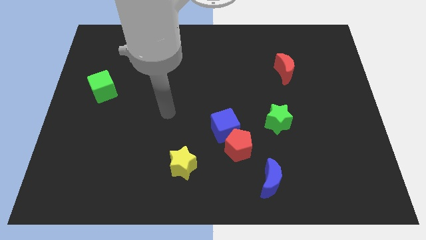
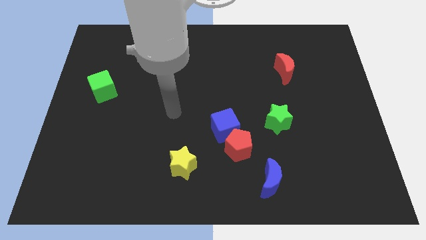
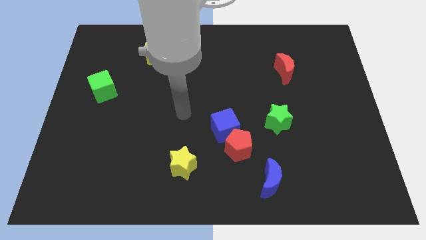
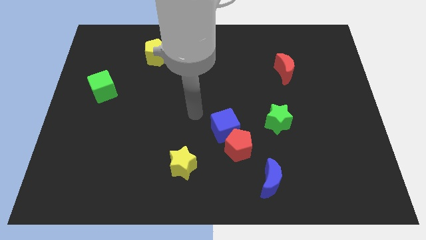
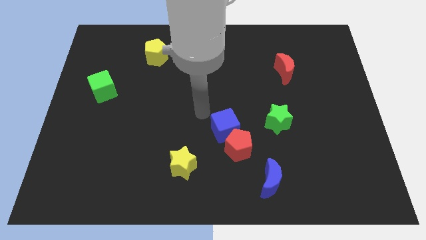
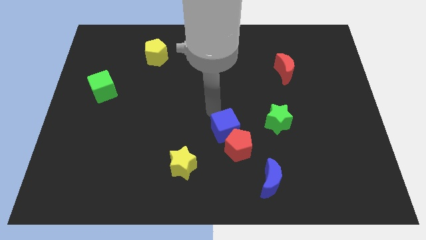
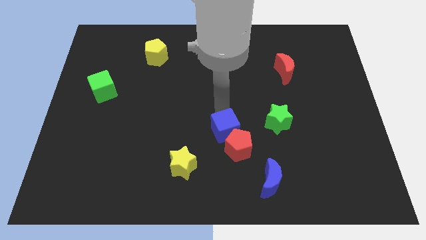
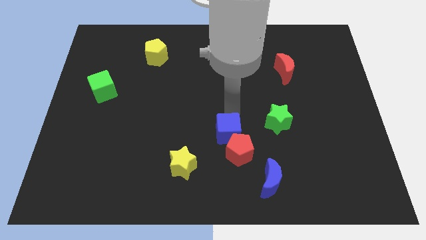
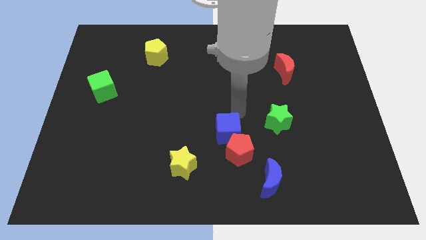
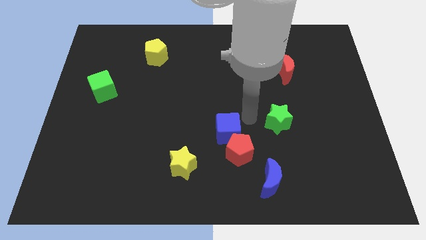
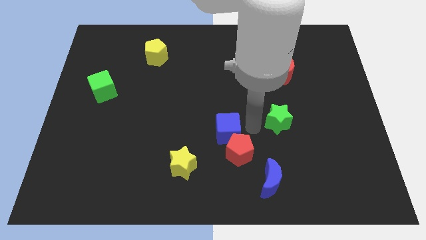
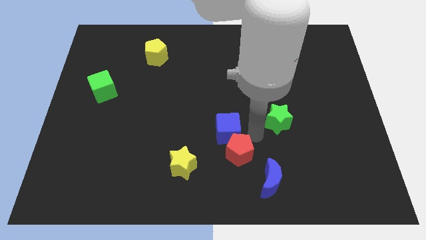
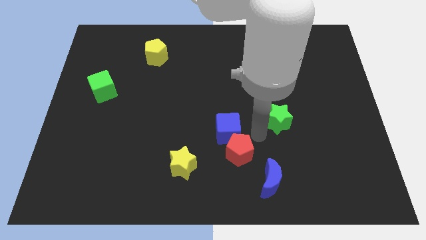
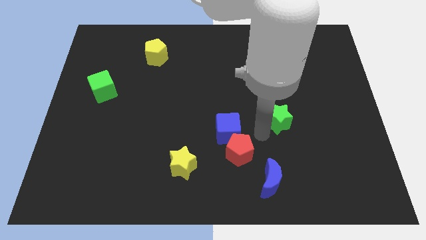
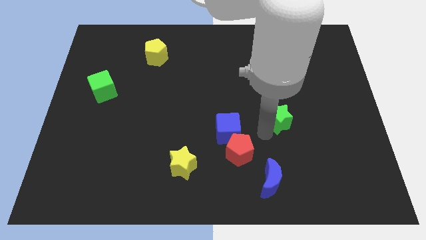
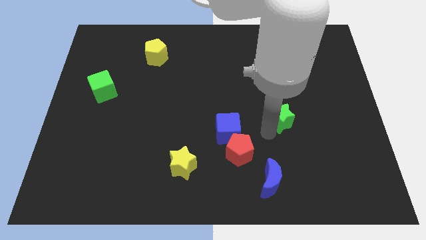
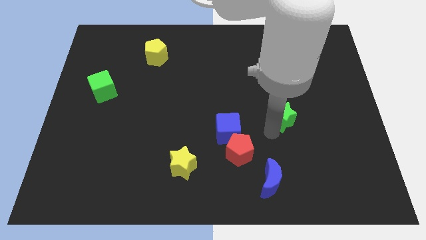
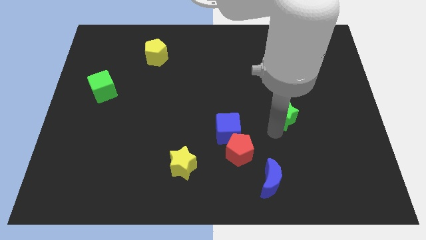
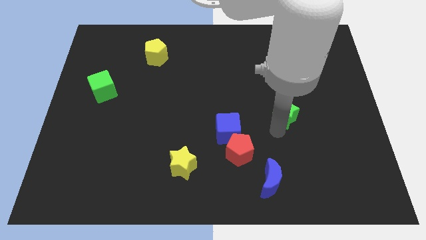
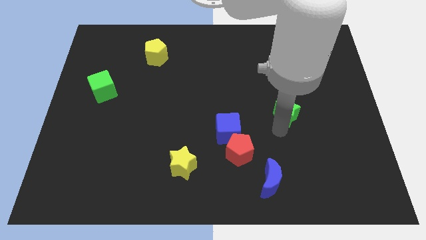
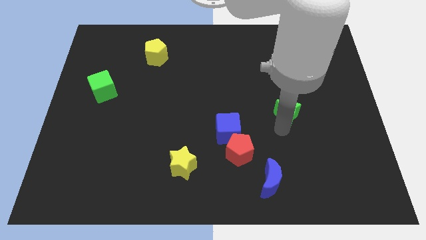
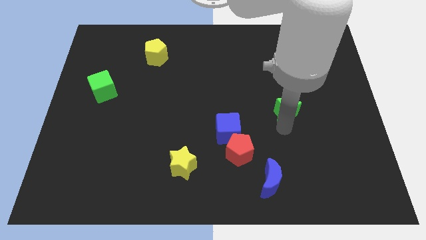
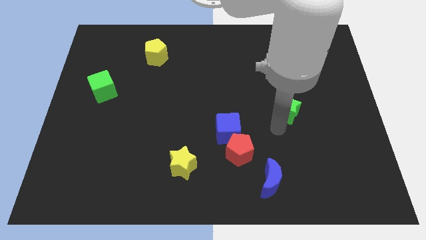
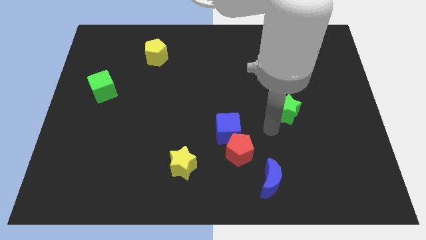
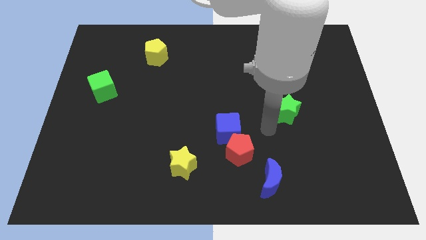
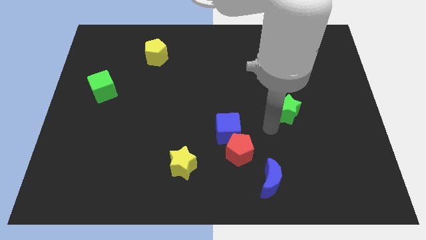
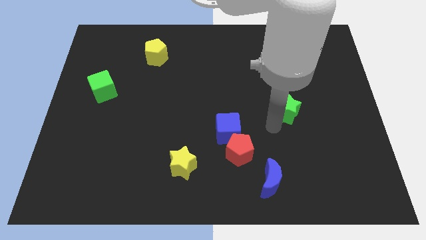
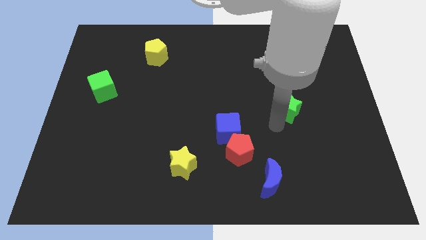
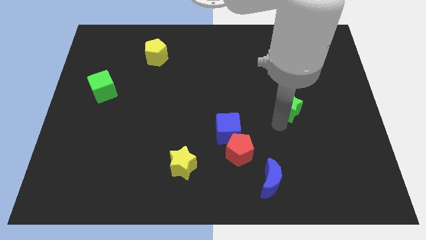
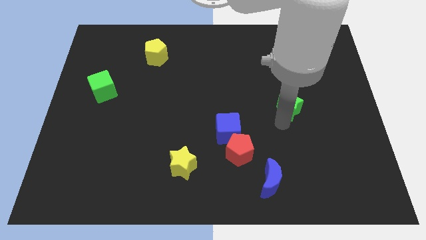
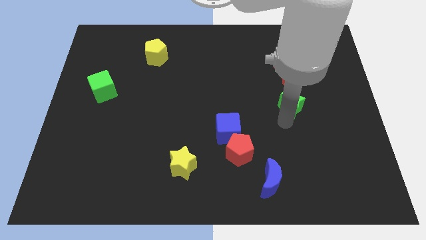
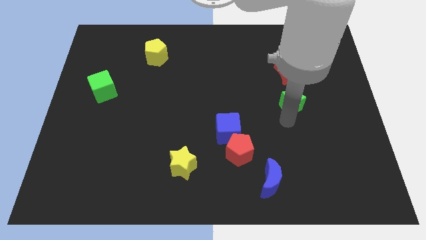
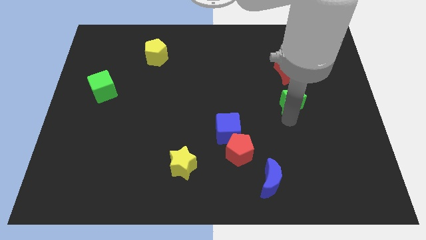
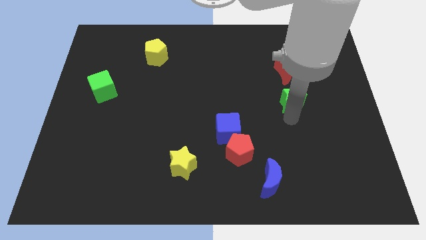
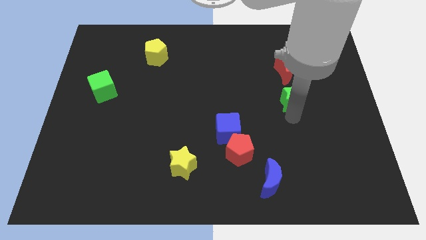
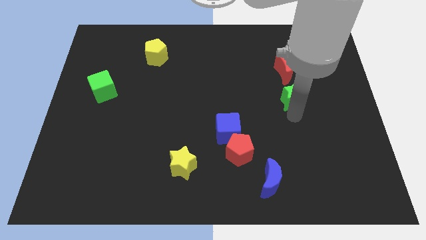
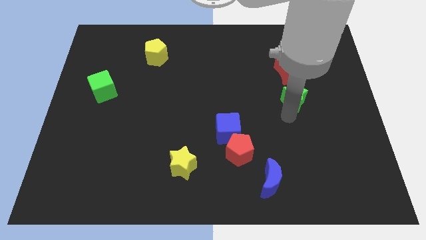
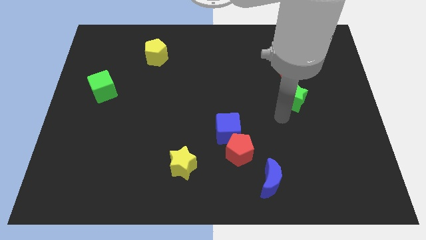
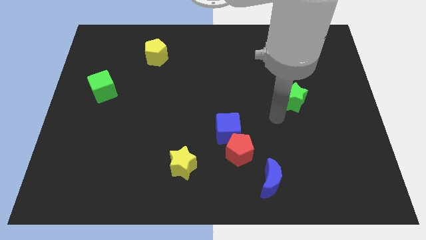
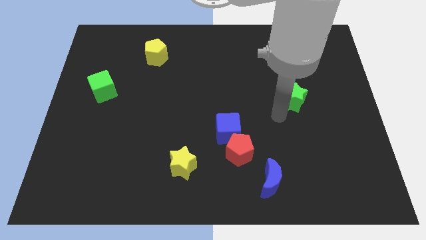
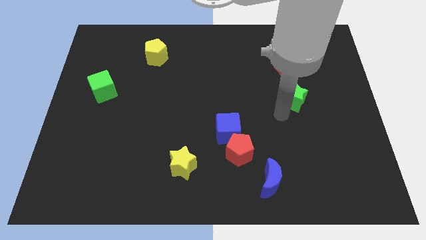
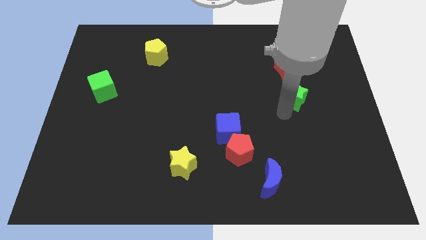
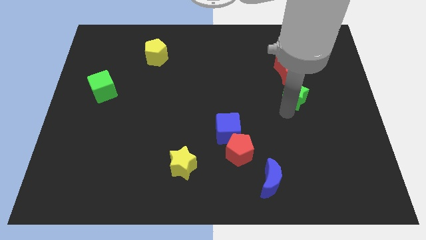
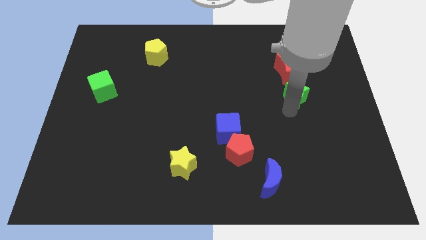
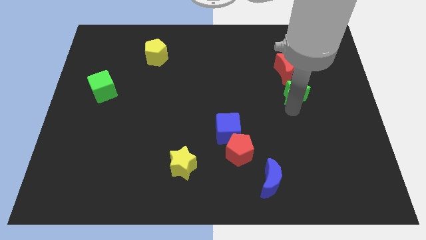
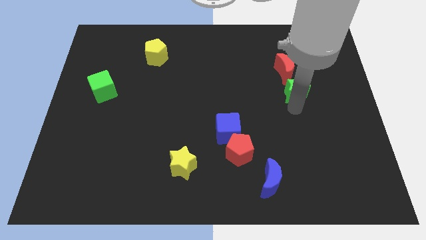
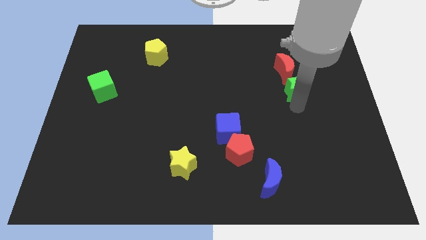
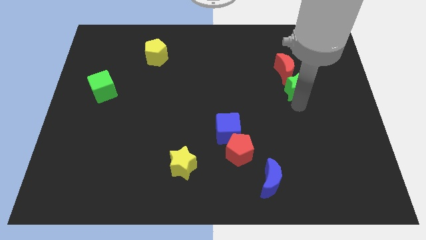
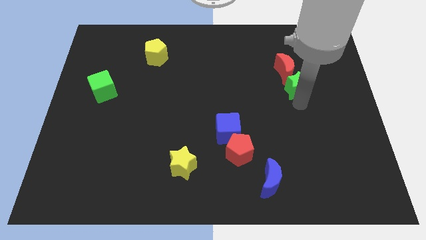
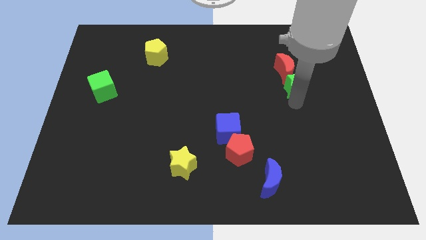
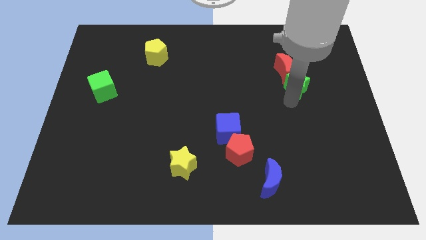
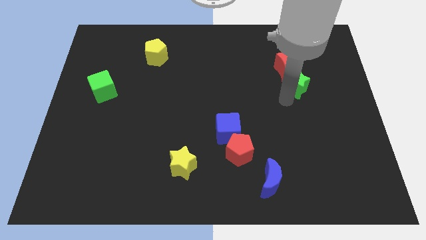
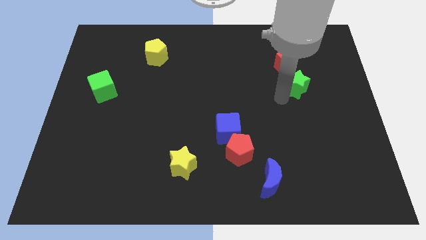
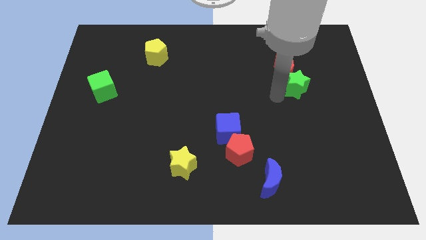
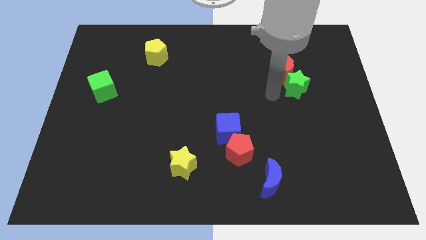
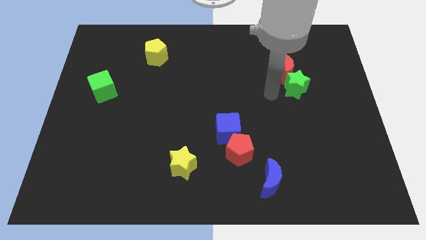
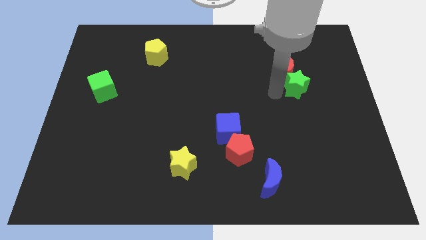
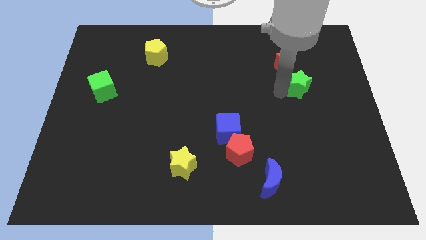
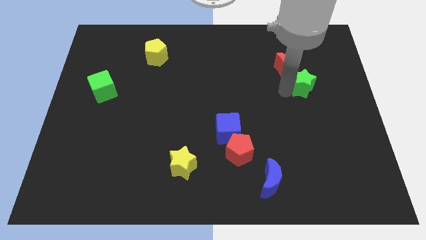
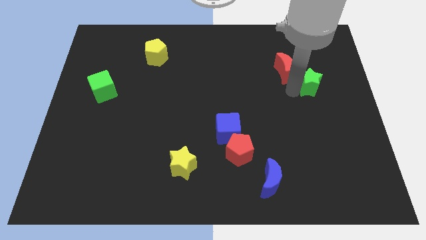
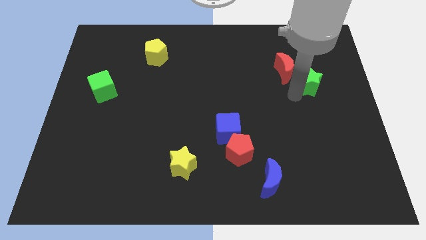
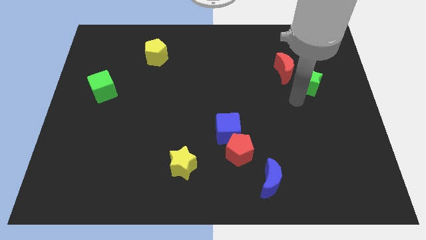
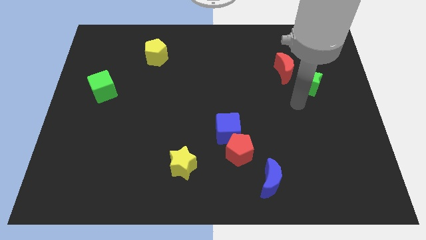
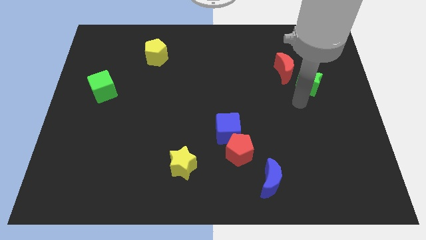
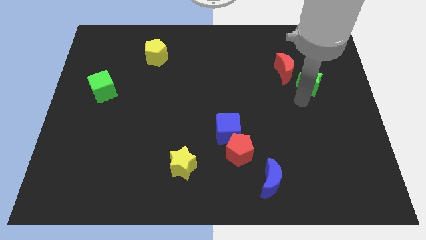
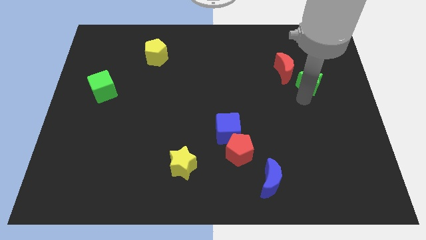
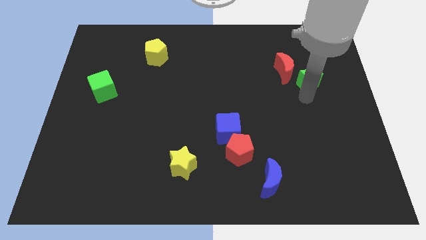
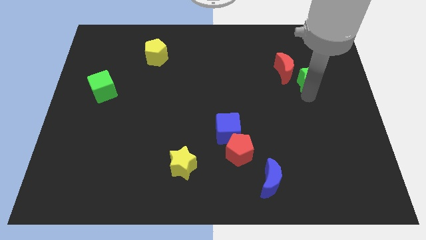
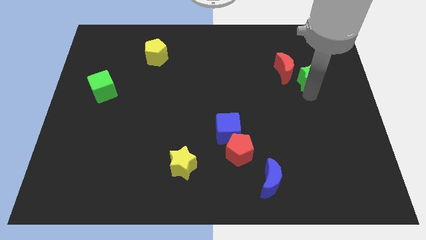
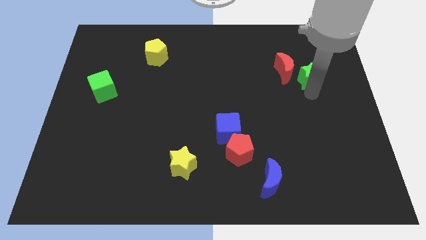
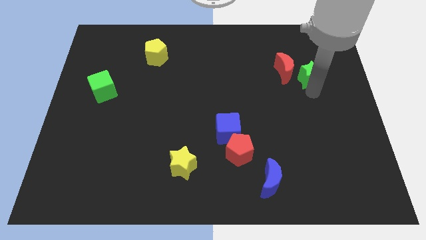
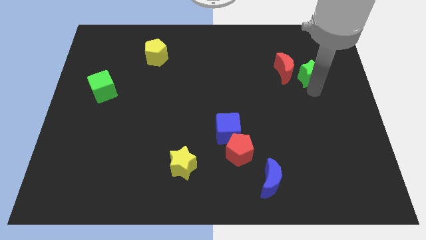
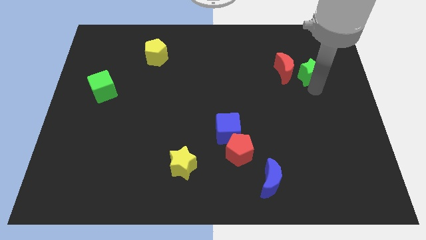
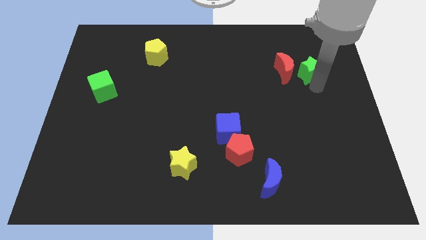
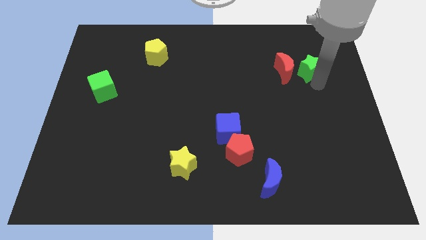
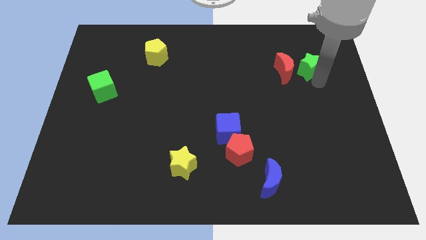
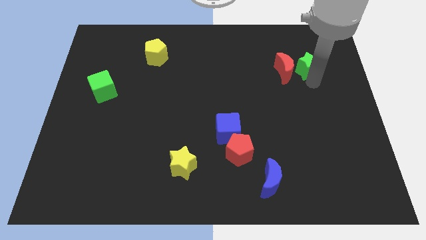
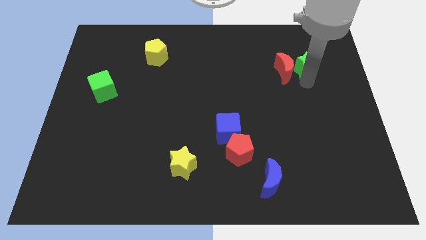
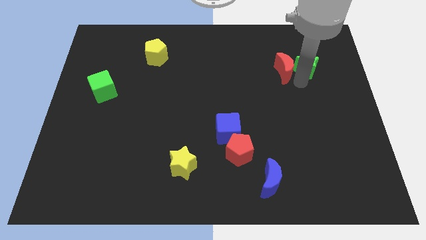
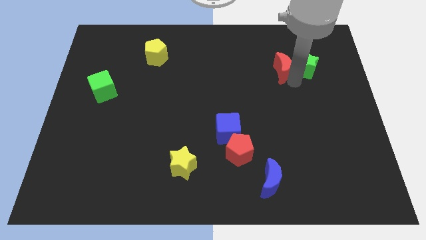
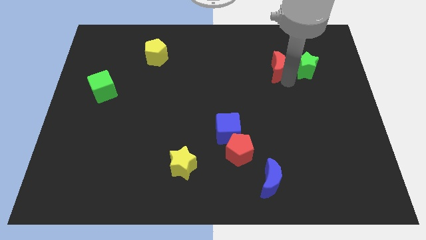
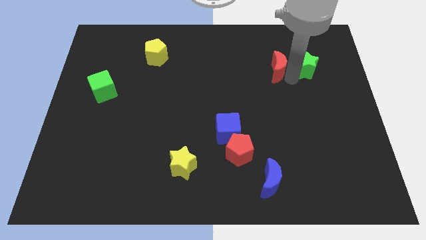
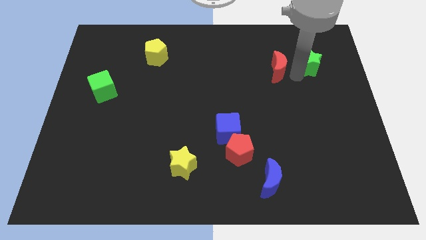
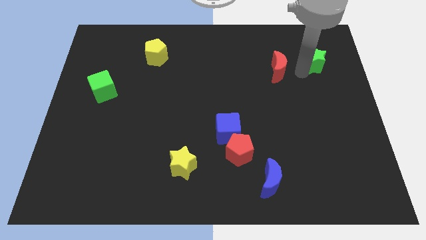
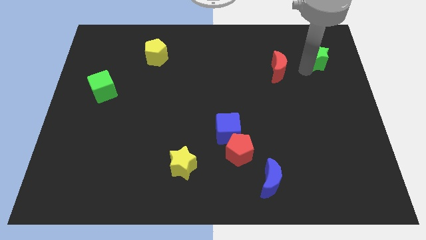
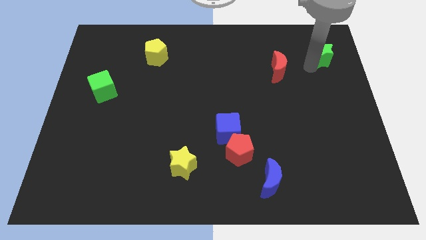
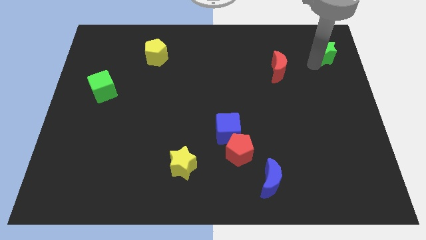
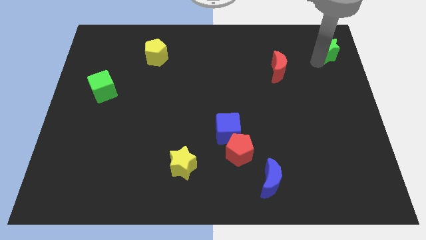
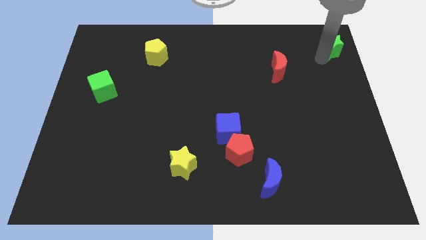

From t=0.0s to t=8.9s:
move the green star to the top right
